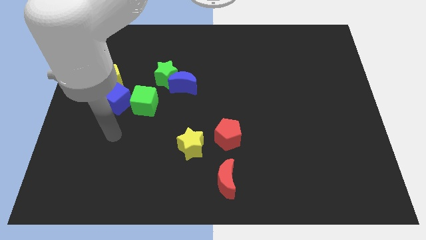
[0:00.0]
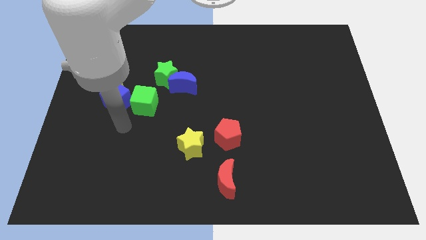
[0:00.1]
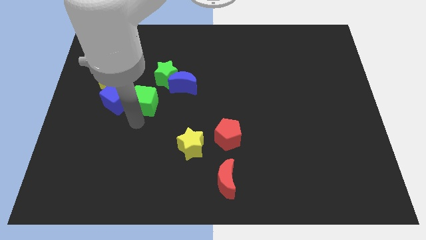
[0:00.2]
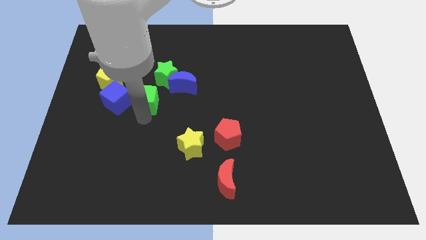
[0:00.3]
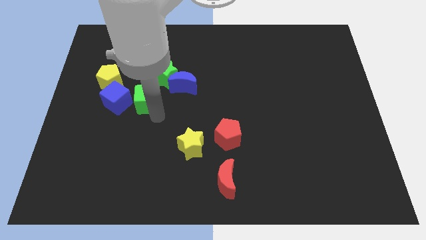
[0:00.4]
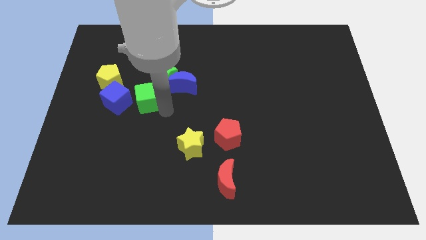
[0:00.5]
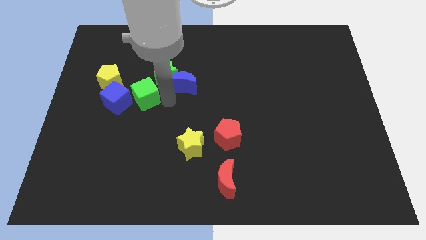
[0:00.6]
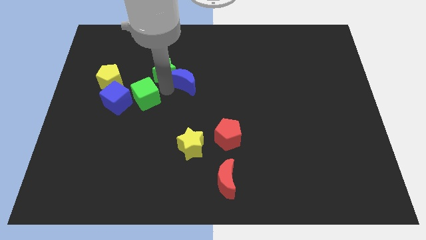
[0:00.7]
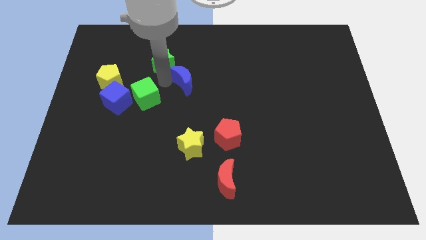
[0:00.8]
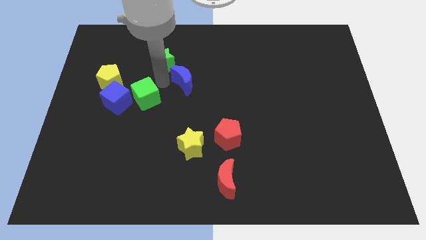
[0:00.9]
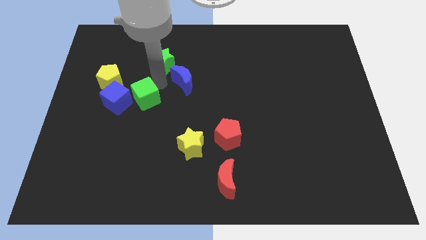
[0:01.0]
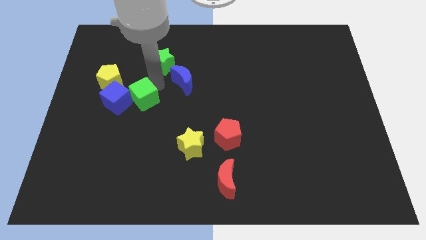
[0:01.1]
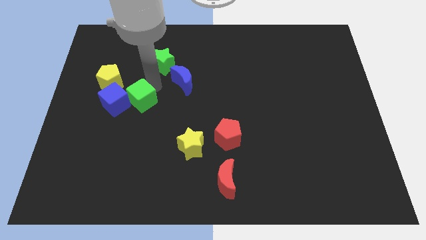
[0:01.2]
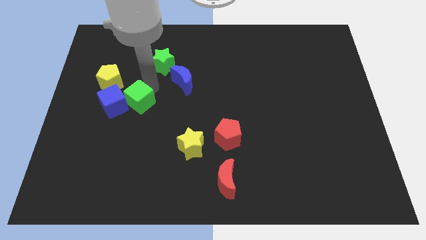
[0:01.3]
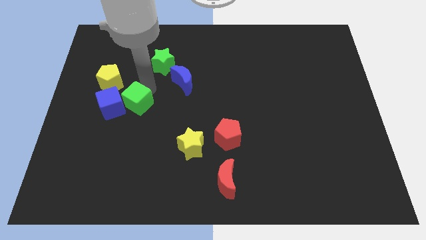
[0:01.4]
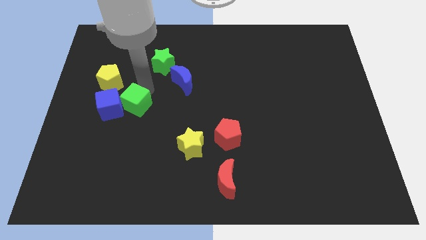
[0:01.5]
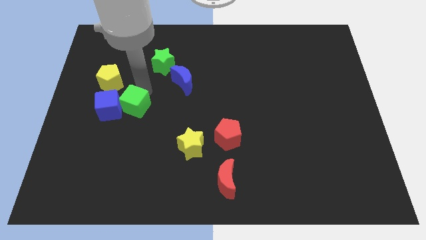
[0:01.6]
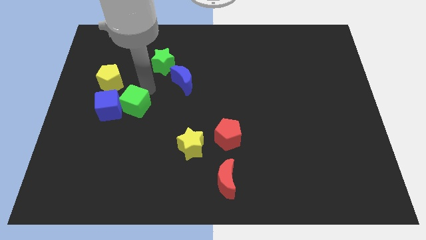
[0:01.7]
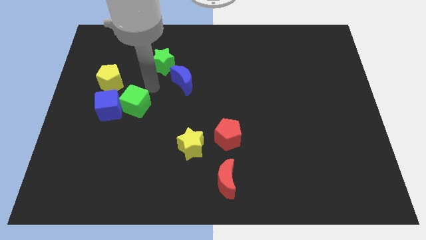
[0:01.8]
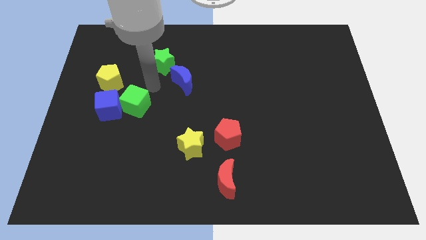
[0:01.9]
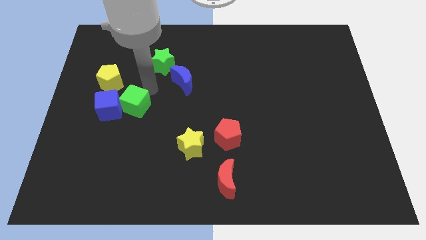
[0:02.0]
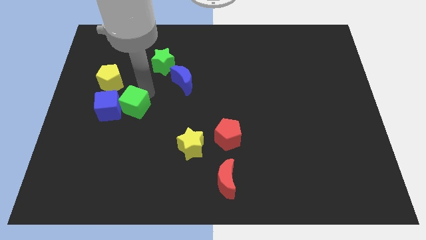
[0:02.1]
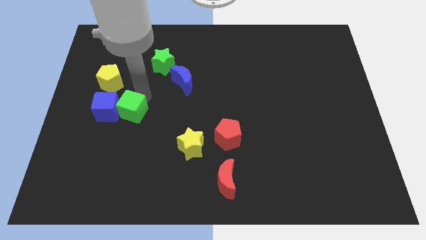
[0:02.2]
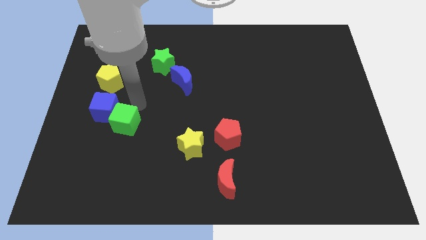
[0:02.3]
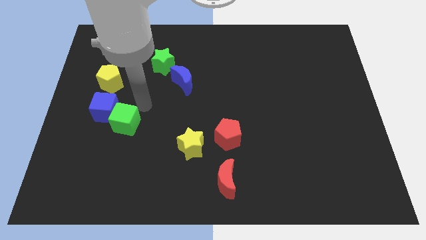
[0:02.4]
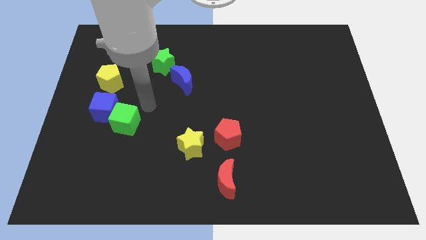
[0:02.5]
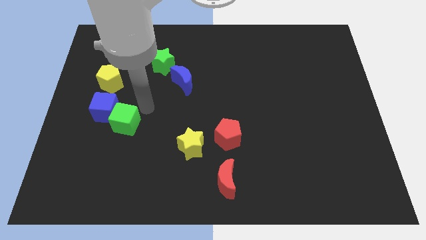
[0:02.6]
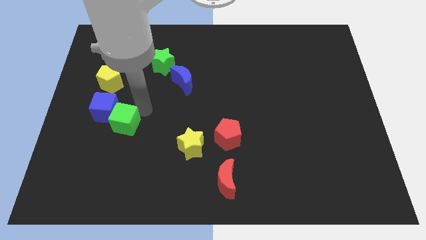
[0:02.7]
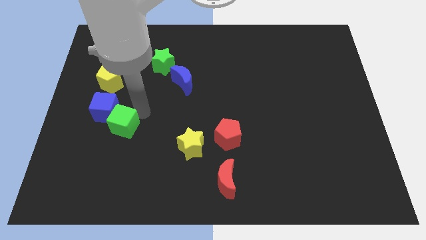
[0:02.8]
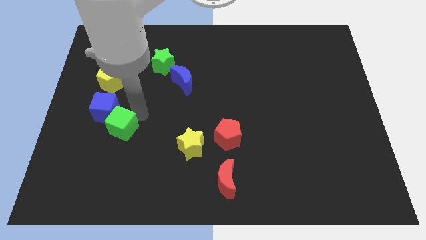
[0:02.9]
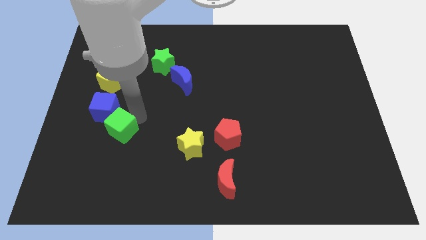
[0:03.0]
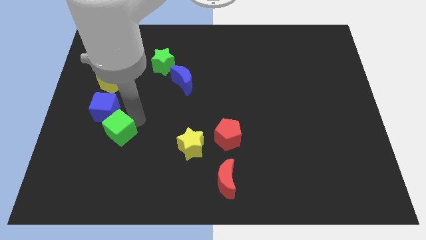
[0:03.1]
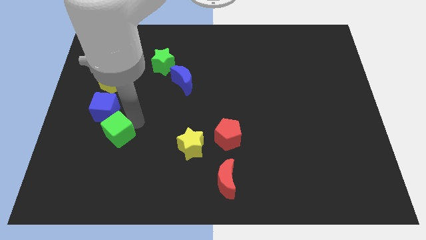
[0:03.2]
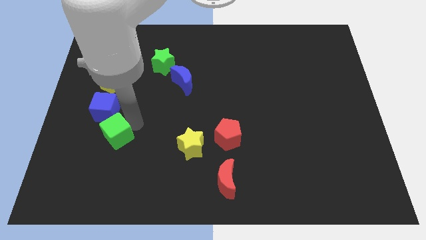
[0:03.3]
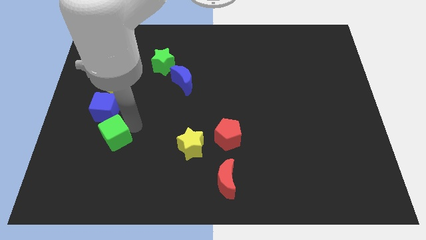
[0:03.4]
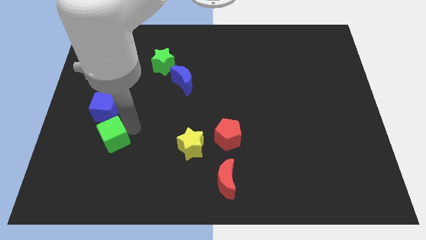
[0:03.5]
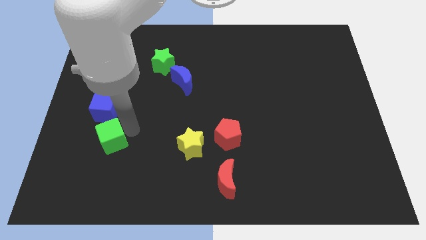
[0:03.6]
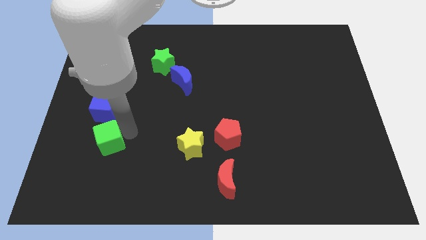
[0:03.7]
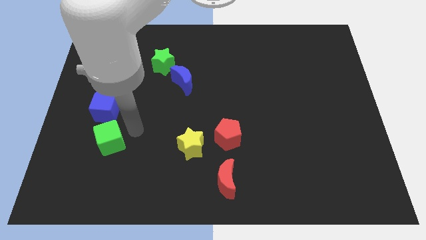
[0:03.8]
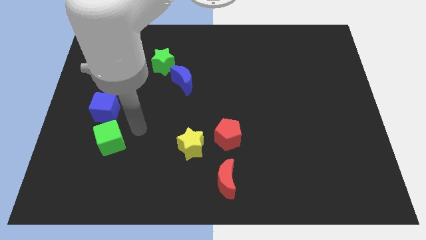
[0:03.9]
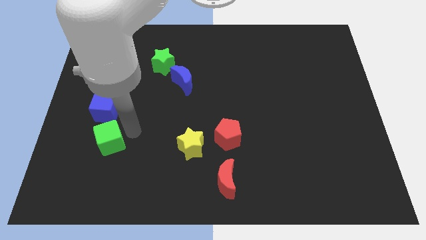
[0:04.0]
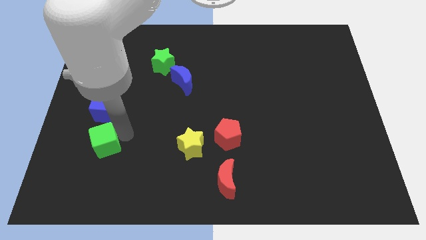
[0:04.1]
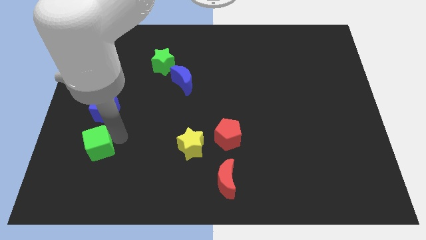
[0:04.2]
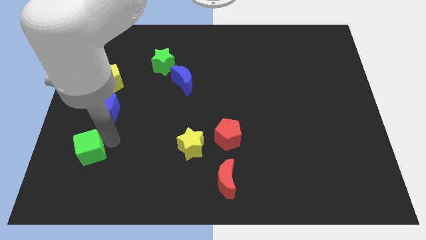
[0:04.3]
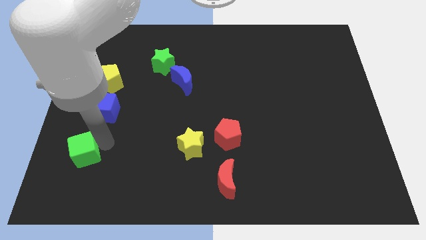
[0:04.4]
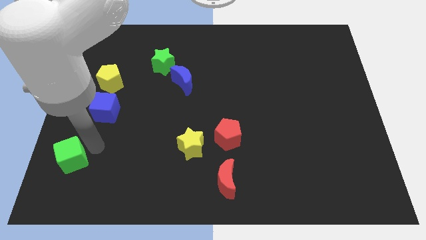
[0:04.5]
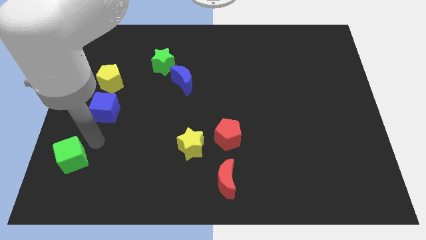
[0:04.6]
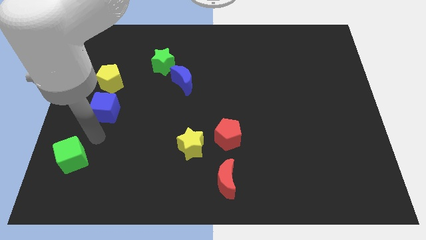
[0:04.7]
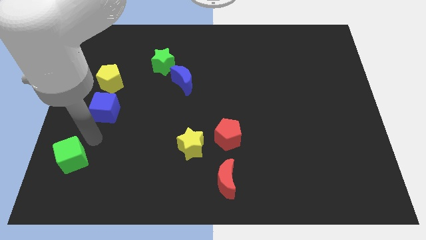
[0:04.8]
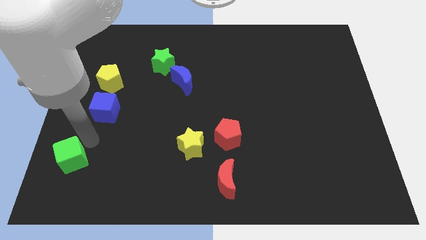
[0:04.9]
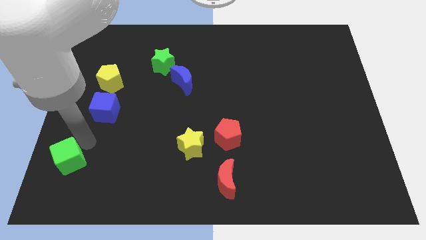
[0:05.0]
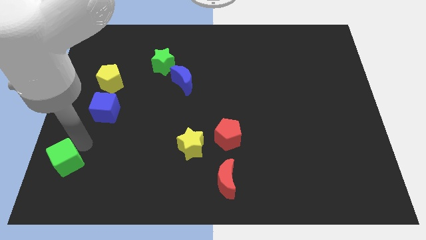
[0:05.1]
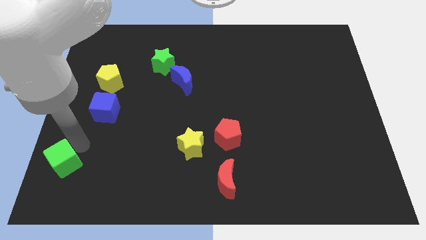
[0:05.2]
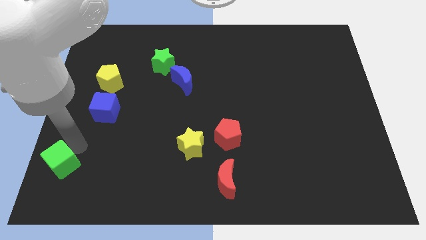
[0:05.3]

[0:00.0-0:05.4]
push the green cube to the lower left corner
